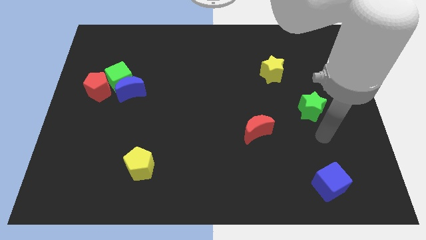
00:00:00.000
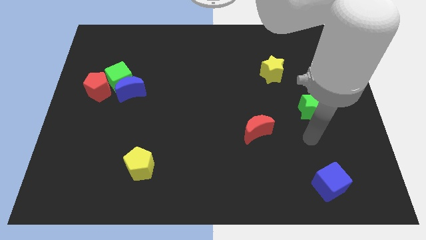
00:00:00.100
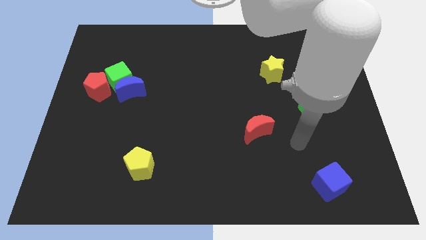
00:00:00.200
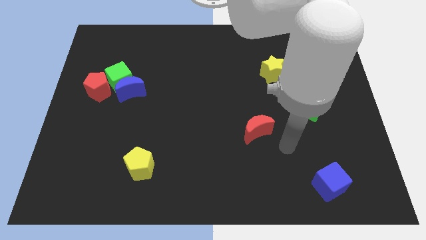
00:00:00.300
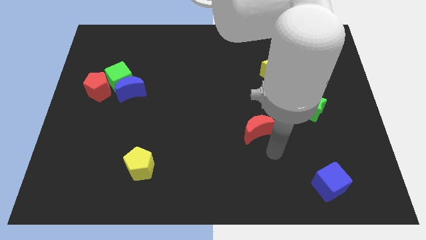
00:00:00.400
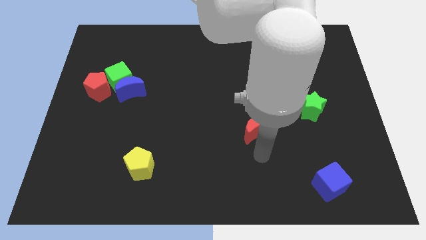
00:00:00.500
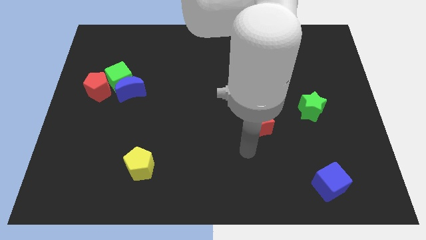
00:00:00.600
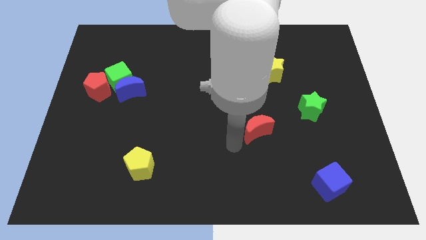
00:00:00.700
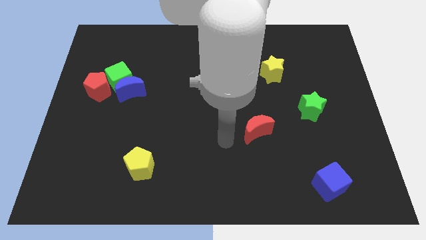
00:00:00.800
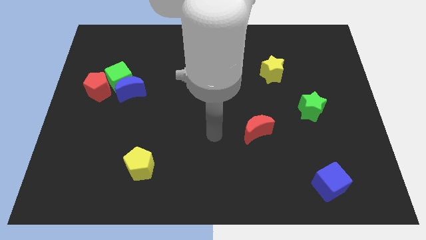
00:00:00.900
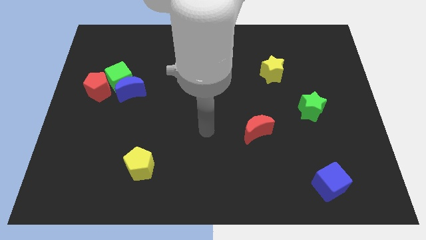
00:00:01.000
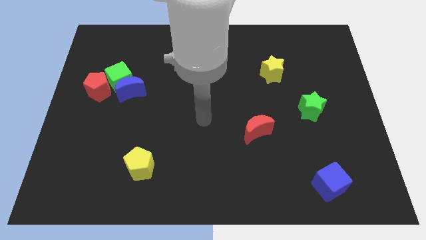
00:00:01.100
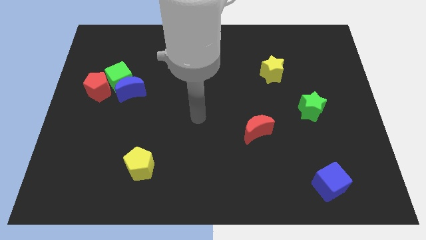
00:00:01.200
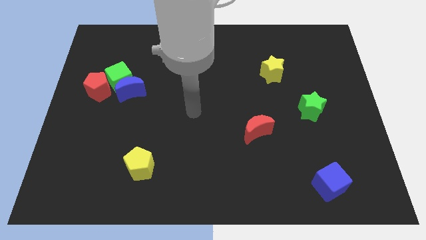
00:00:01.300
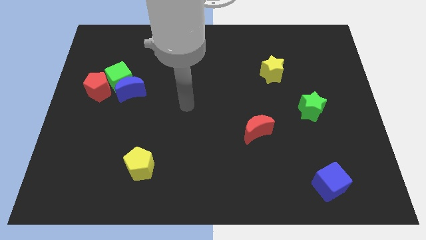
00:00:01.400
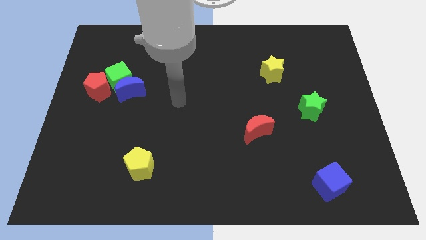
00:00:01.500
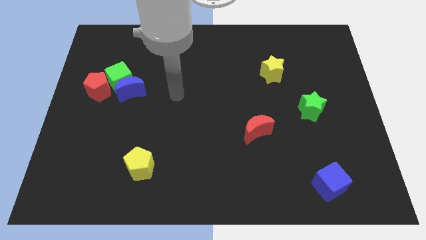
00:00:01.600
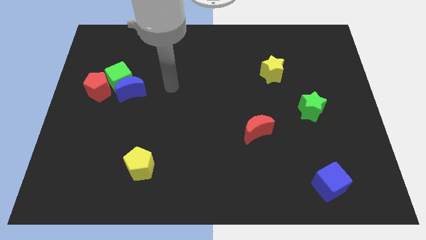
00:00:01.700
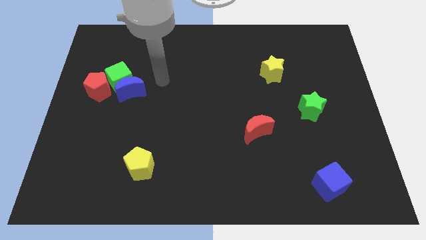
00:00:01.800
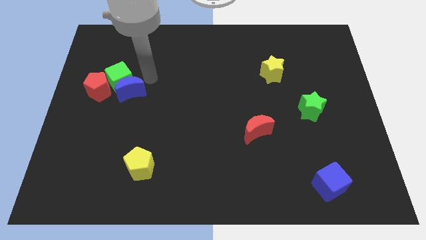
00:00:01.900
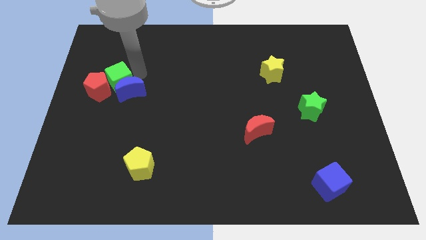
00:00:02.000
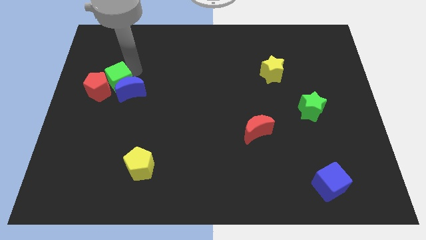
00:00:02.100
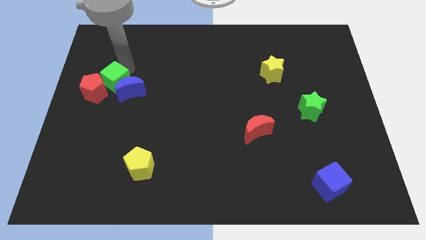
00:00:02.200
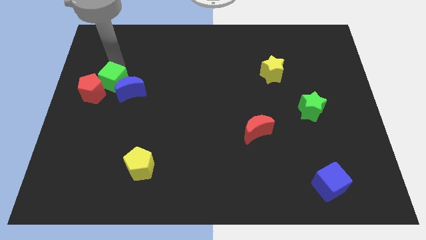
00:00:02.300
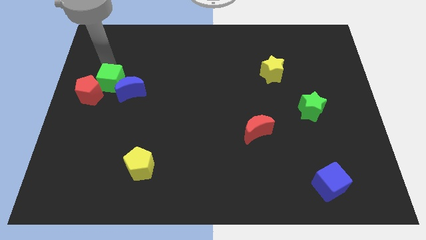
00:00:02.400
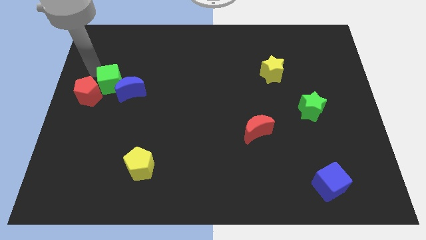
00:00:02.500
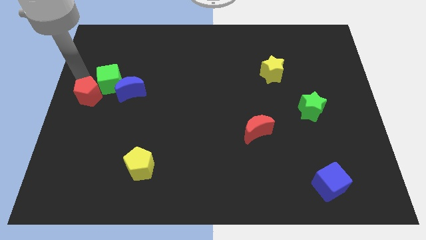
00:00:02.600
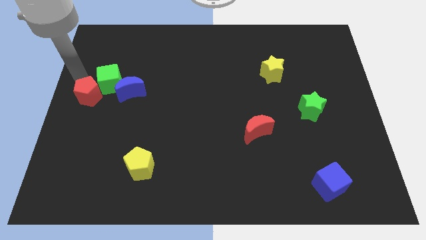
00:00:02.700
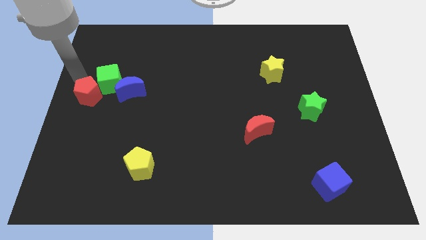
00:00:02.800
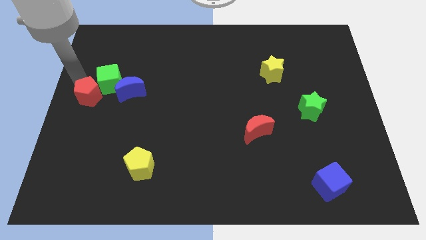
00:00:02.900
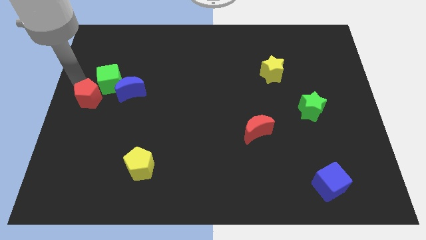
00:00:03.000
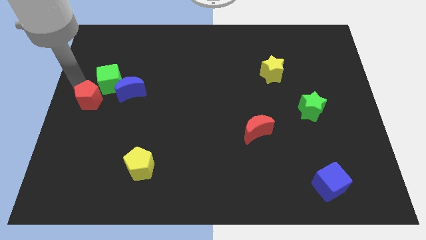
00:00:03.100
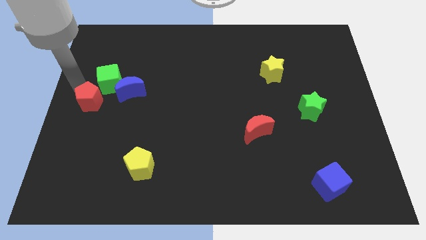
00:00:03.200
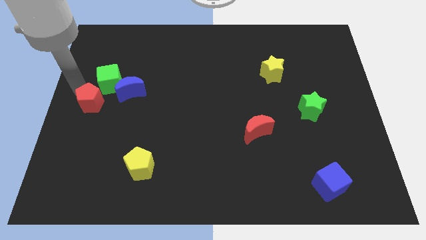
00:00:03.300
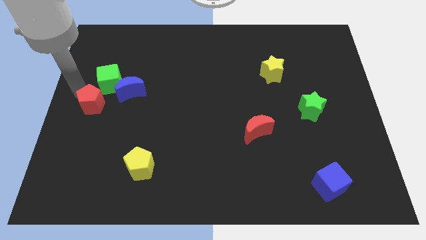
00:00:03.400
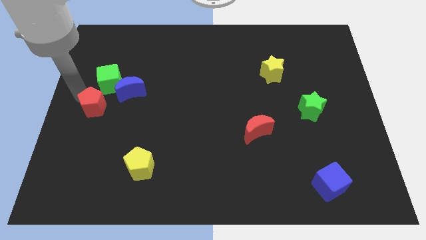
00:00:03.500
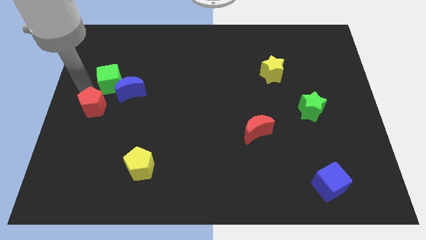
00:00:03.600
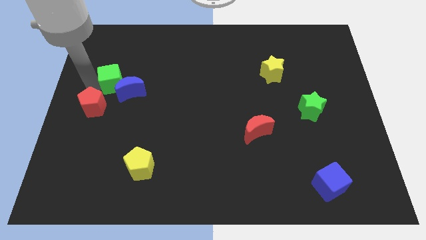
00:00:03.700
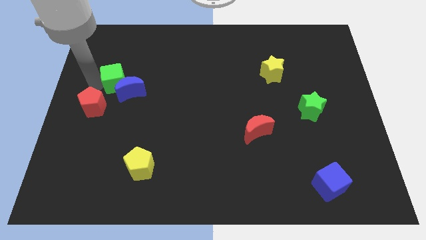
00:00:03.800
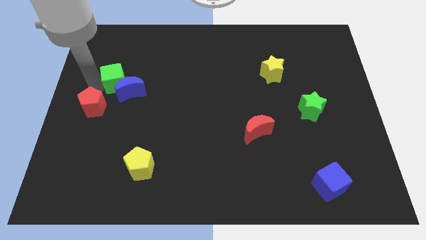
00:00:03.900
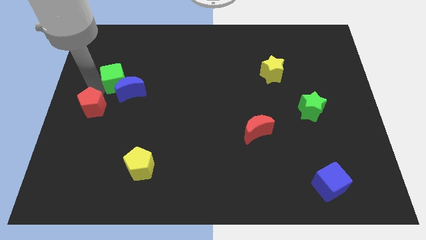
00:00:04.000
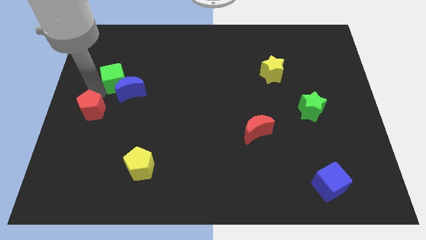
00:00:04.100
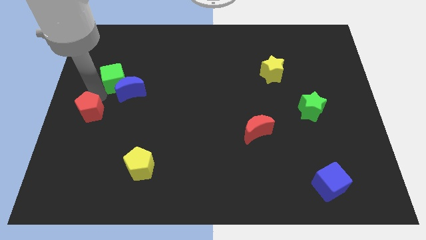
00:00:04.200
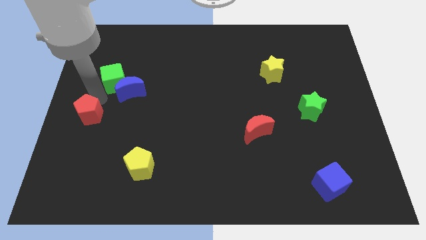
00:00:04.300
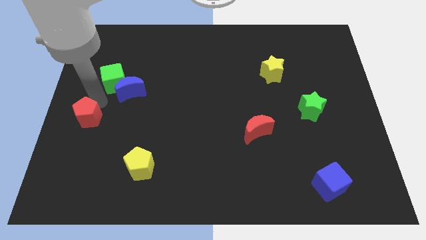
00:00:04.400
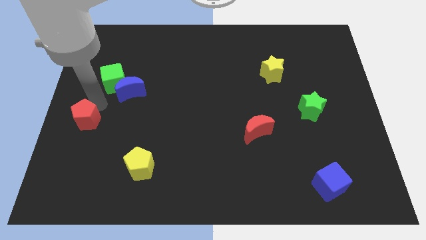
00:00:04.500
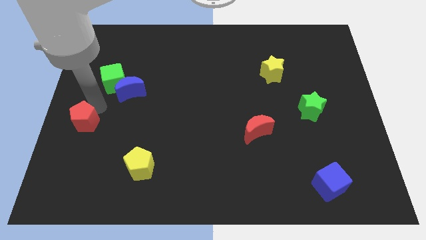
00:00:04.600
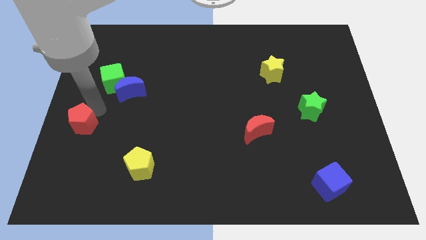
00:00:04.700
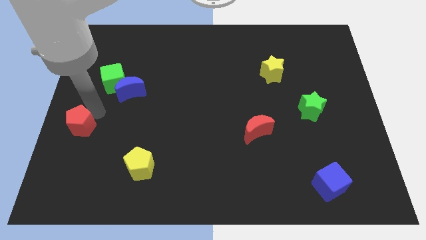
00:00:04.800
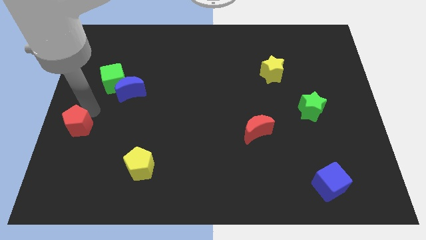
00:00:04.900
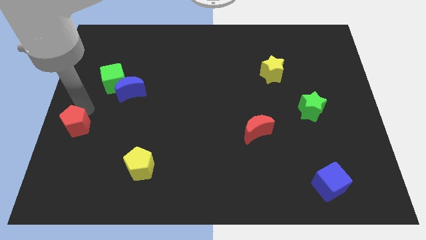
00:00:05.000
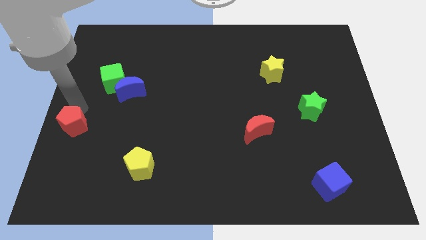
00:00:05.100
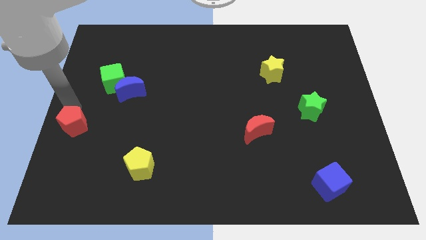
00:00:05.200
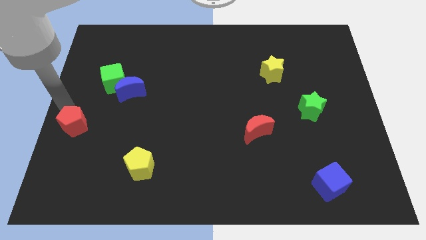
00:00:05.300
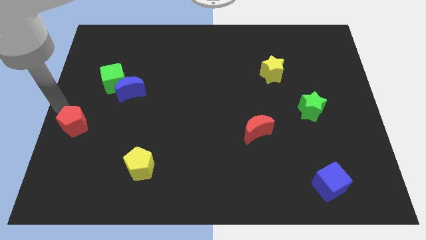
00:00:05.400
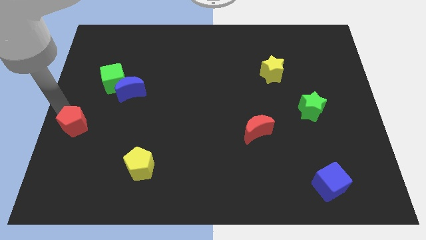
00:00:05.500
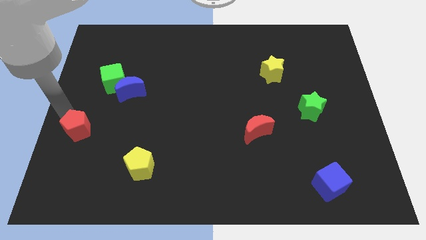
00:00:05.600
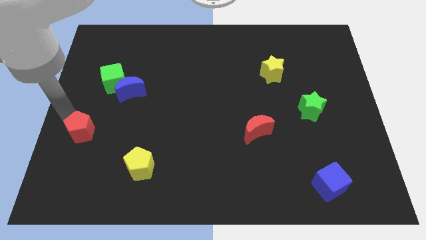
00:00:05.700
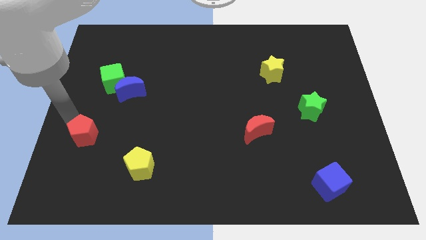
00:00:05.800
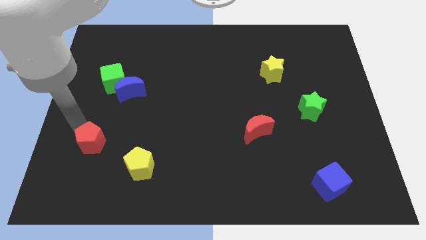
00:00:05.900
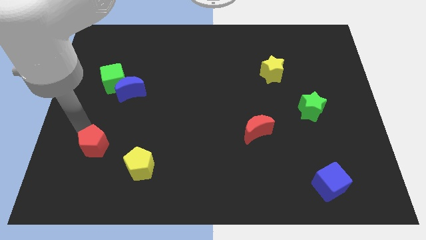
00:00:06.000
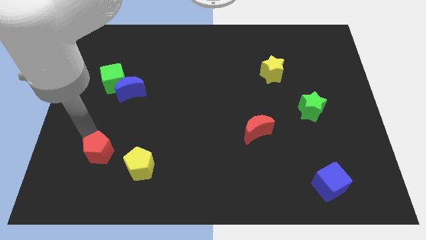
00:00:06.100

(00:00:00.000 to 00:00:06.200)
slide the red pentagon left of the yellow pentagon
